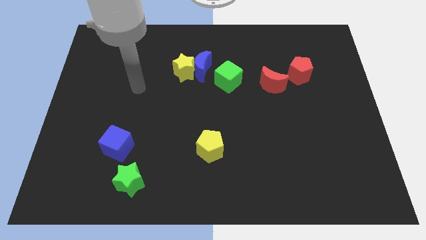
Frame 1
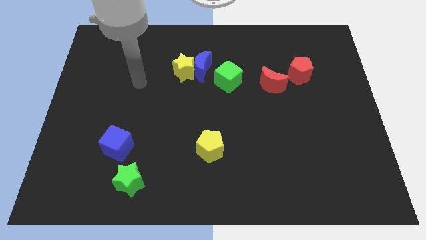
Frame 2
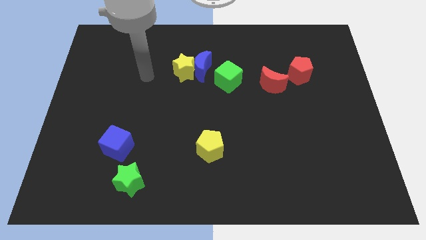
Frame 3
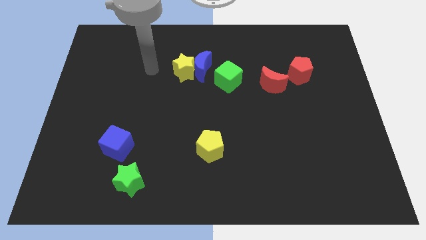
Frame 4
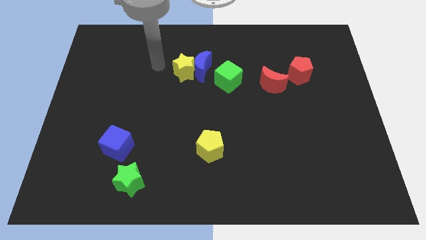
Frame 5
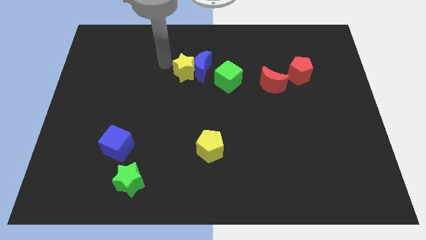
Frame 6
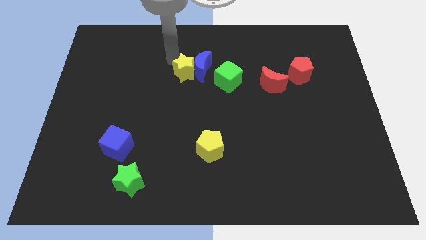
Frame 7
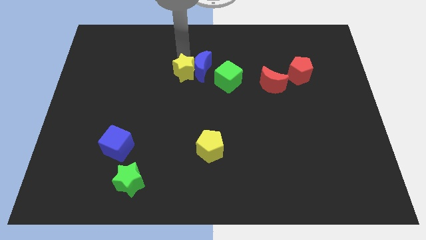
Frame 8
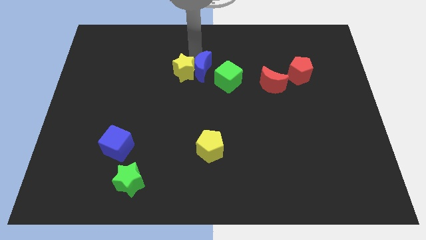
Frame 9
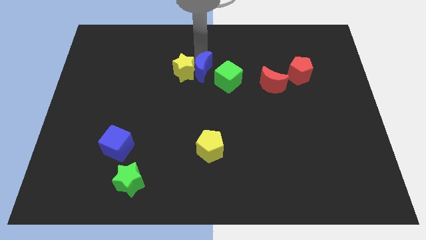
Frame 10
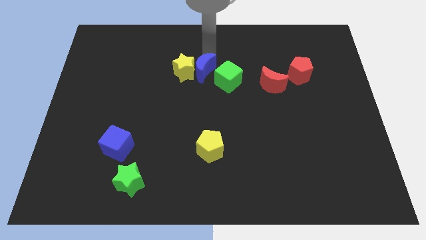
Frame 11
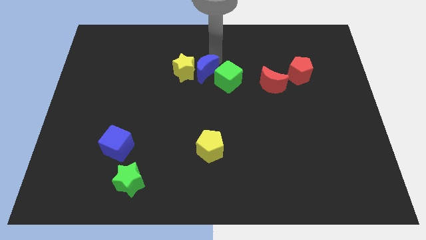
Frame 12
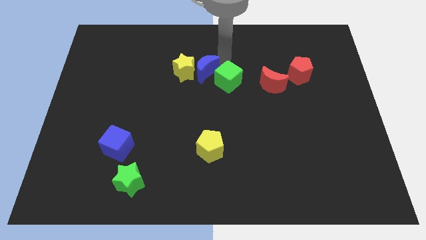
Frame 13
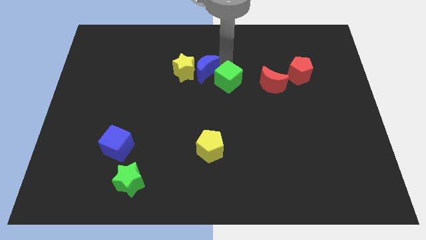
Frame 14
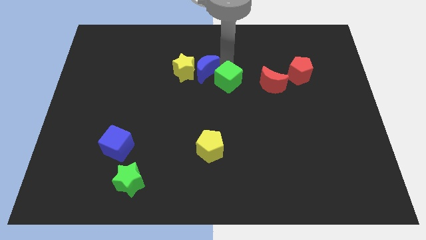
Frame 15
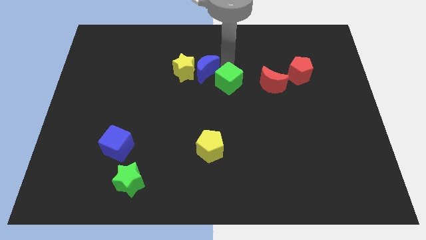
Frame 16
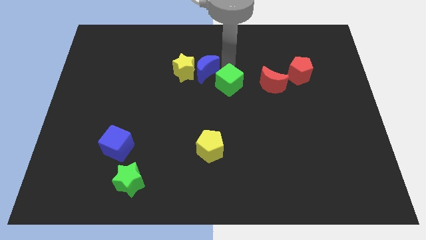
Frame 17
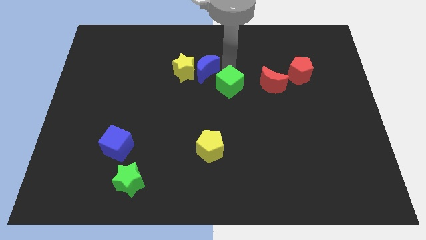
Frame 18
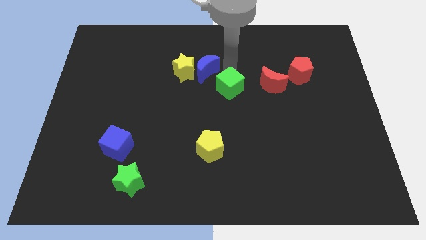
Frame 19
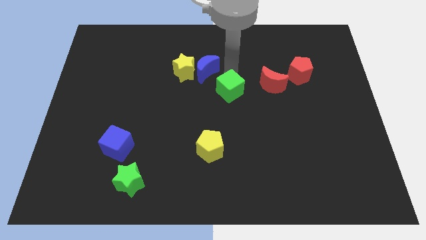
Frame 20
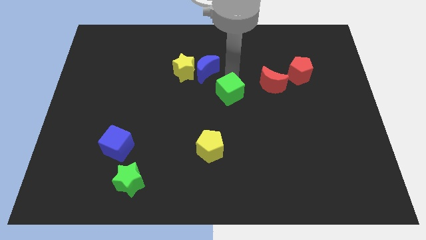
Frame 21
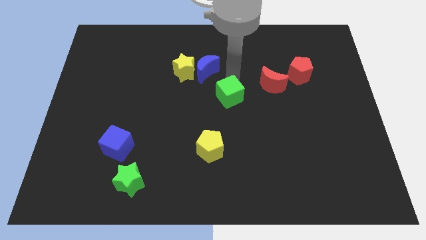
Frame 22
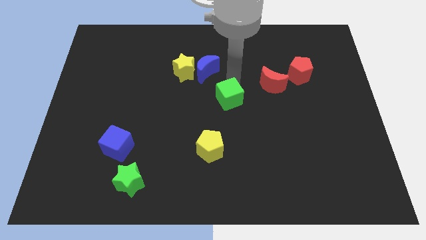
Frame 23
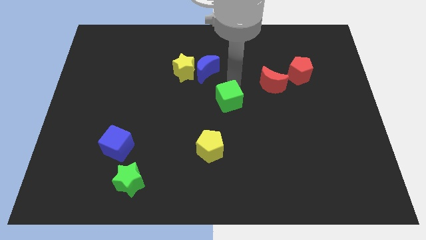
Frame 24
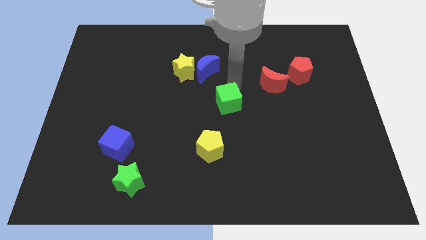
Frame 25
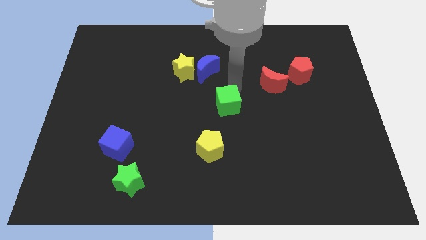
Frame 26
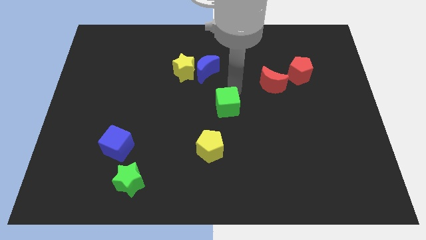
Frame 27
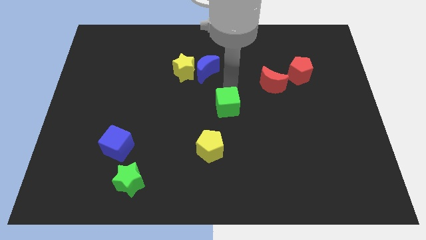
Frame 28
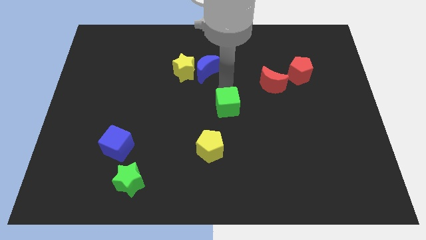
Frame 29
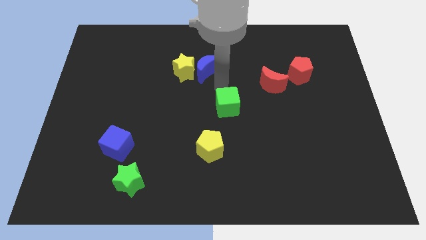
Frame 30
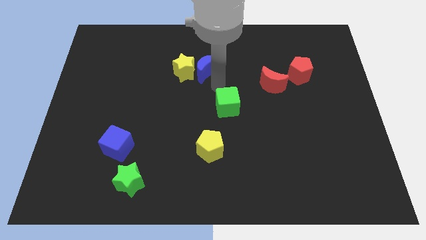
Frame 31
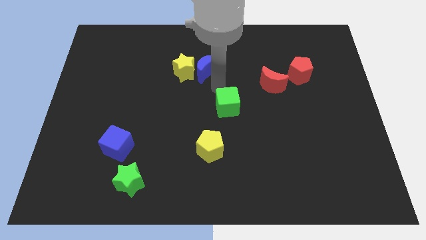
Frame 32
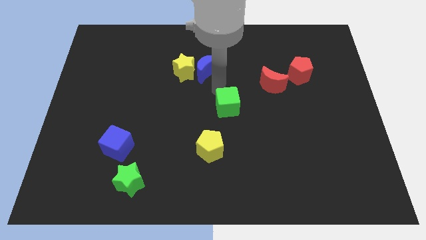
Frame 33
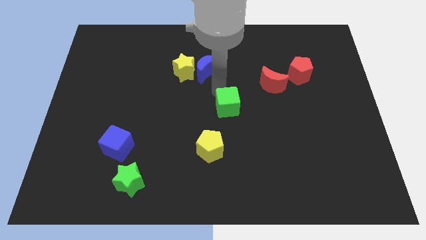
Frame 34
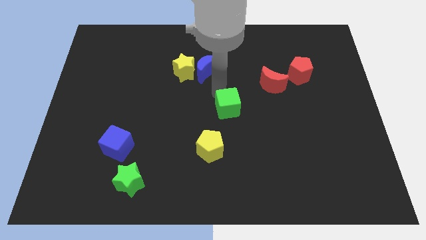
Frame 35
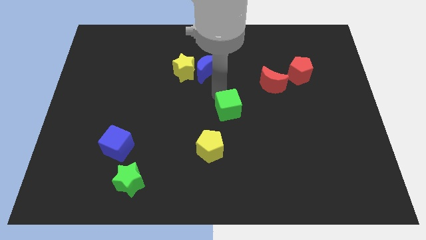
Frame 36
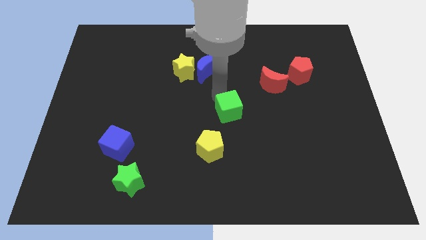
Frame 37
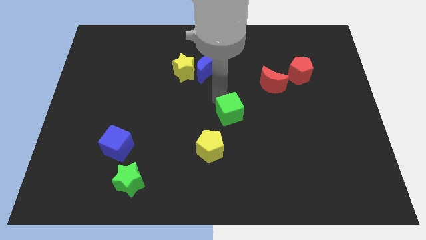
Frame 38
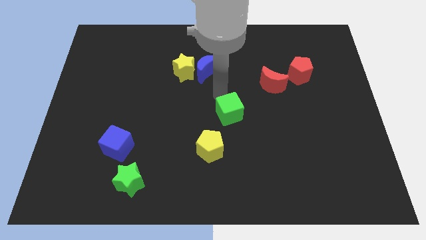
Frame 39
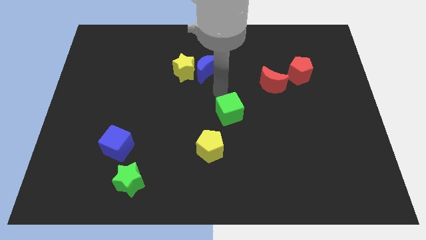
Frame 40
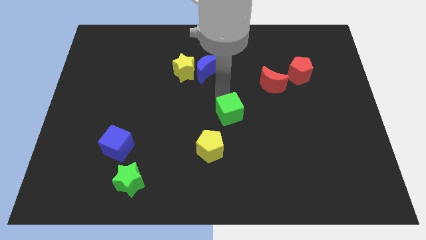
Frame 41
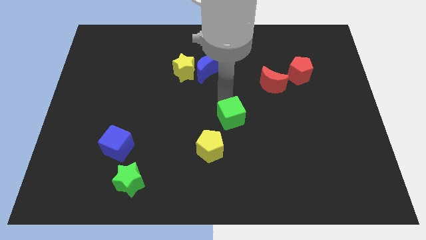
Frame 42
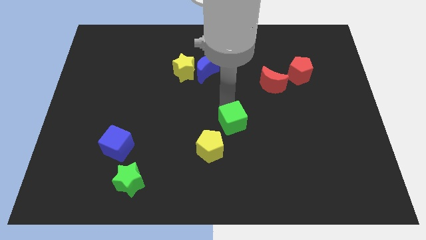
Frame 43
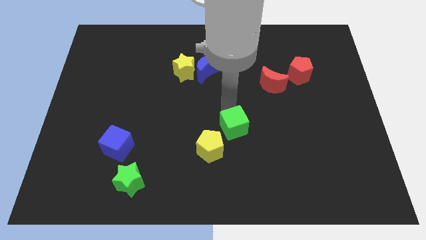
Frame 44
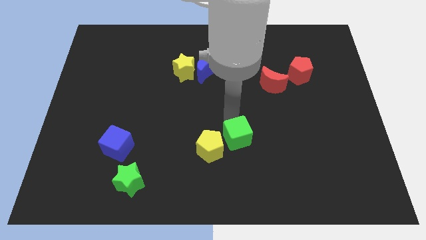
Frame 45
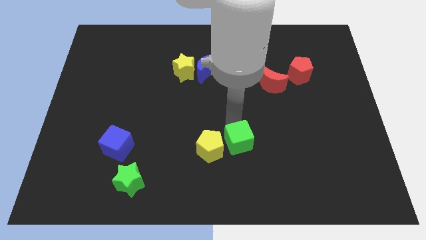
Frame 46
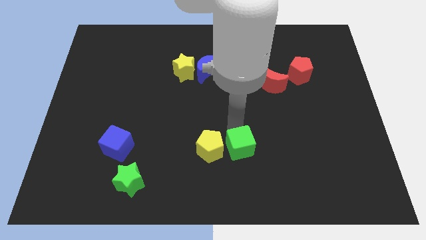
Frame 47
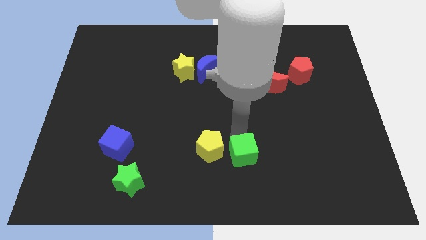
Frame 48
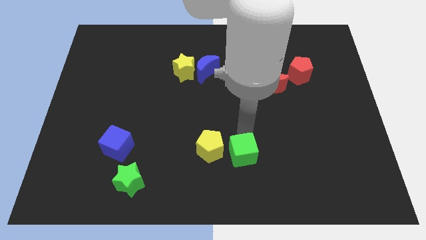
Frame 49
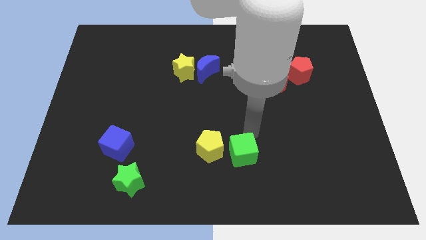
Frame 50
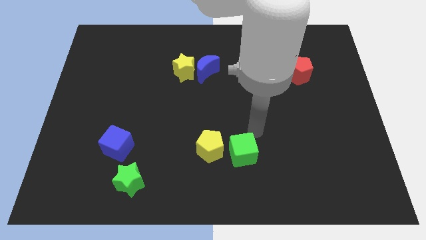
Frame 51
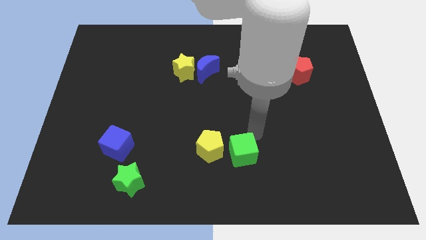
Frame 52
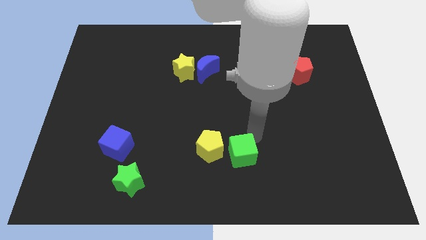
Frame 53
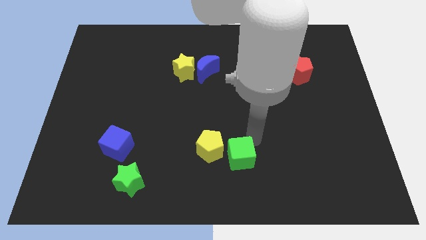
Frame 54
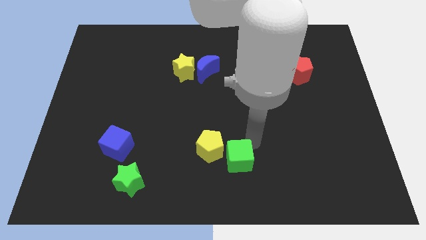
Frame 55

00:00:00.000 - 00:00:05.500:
push the green cube to the bottom

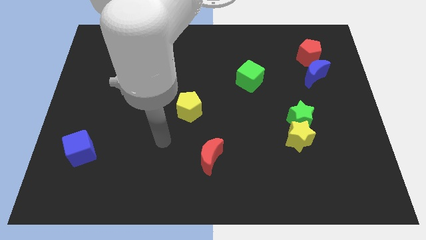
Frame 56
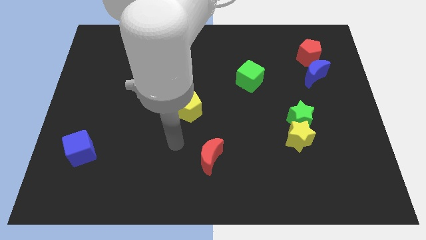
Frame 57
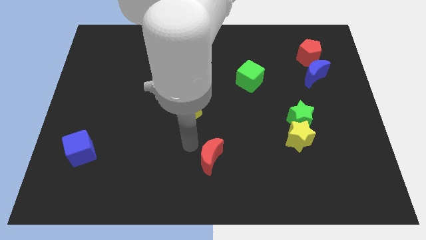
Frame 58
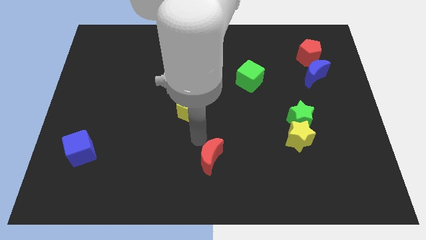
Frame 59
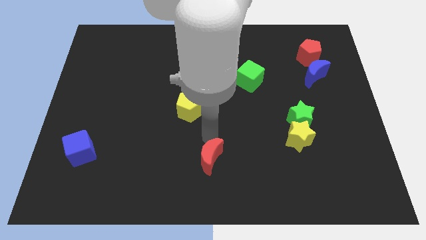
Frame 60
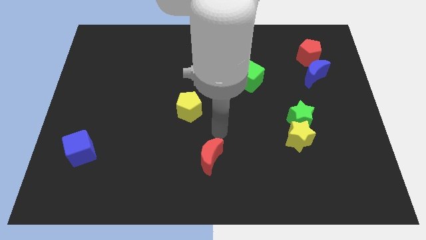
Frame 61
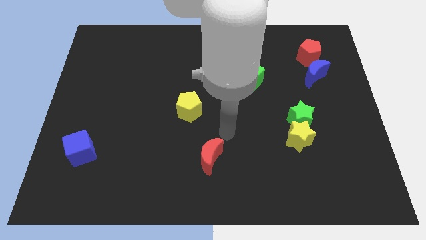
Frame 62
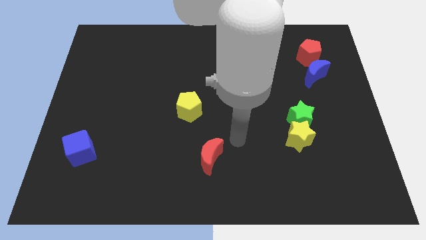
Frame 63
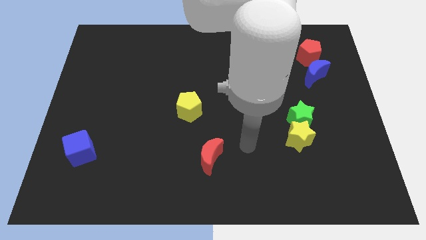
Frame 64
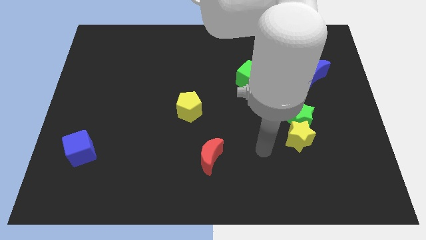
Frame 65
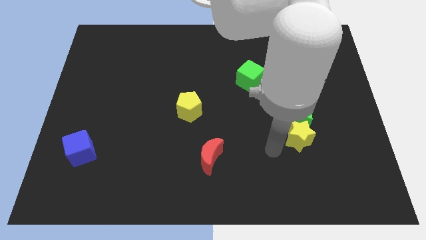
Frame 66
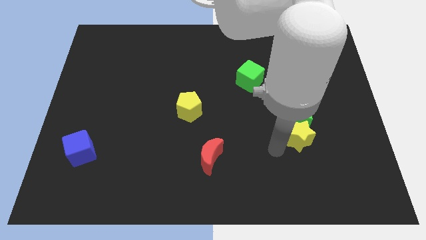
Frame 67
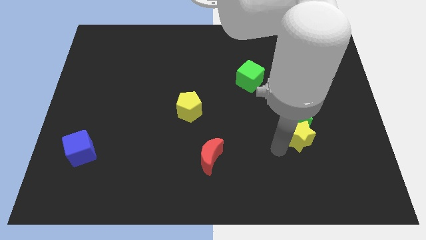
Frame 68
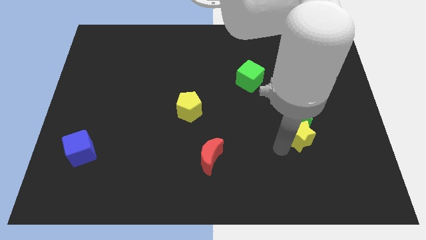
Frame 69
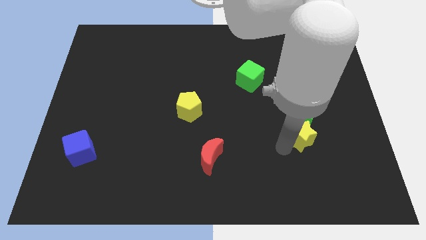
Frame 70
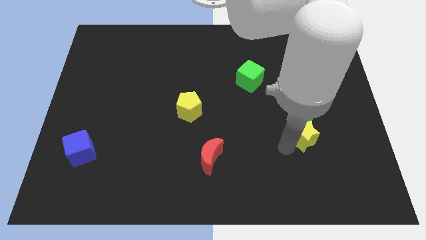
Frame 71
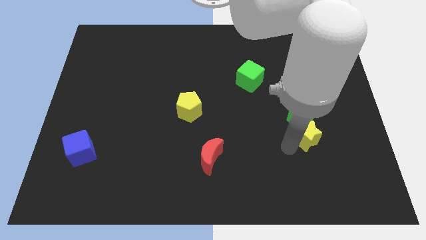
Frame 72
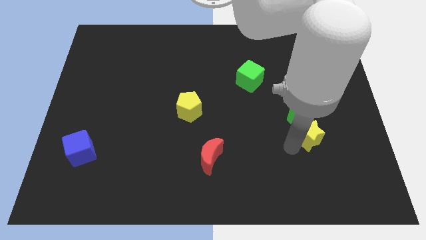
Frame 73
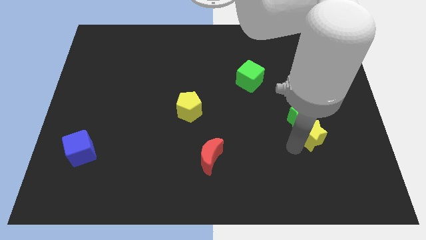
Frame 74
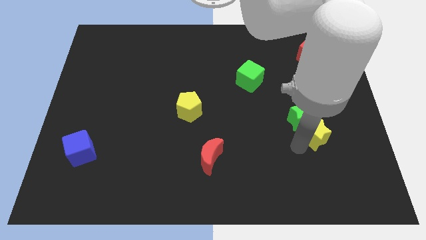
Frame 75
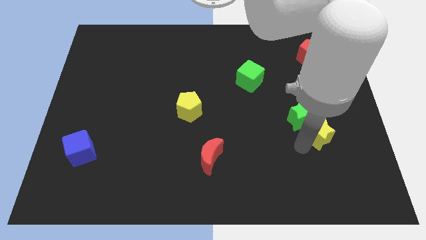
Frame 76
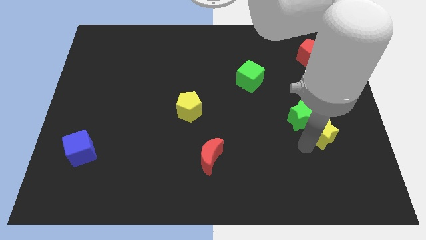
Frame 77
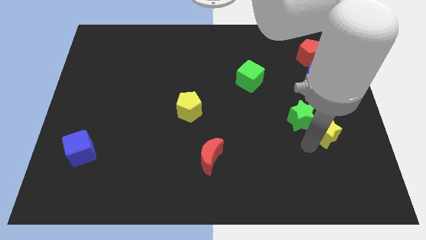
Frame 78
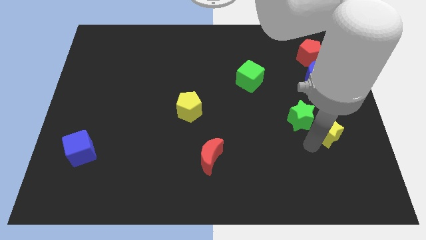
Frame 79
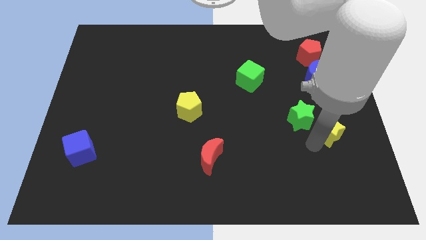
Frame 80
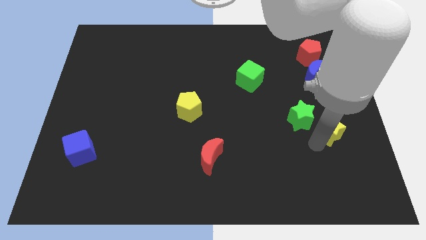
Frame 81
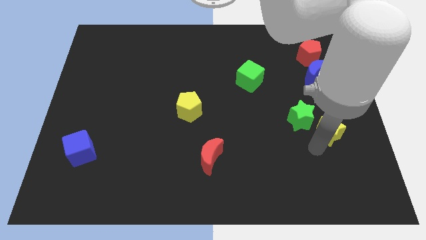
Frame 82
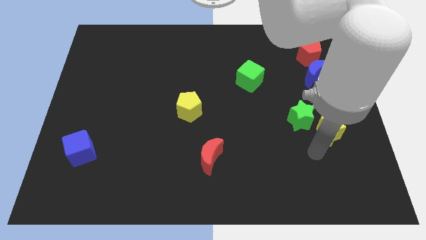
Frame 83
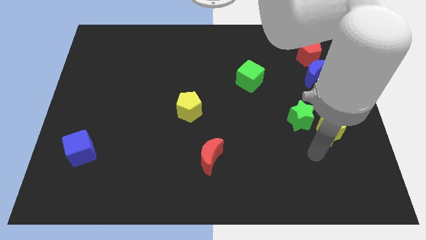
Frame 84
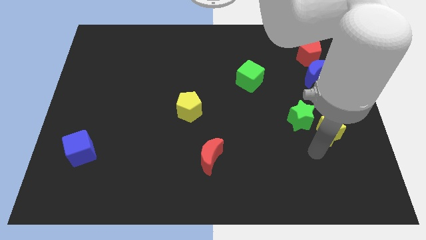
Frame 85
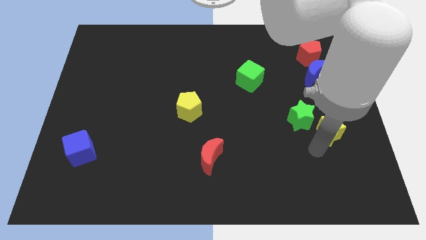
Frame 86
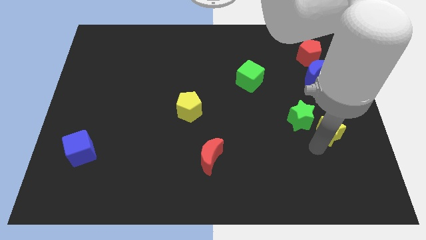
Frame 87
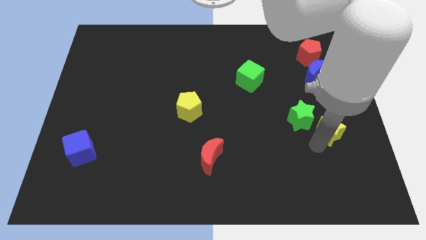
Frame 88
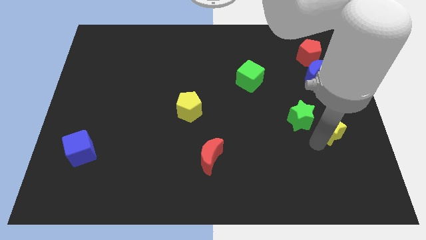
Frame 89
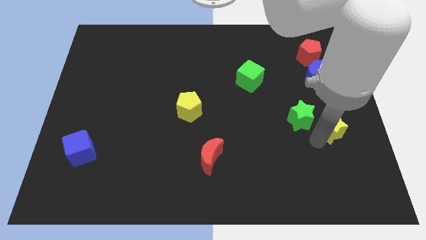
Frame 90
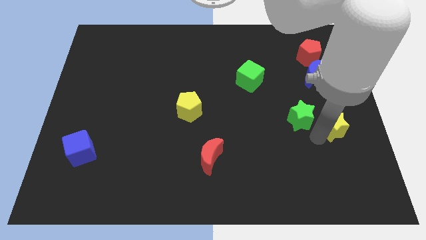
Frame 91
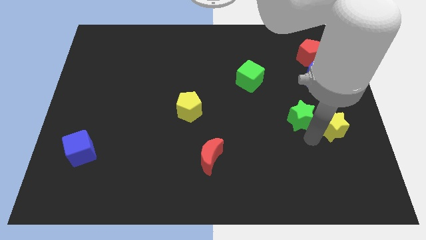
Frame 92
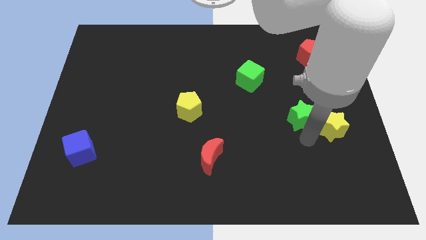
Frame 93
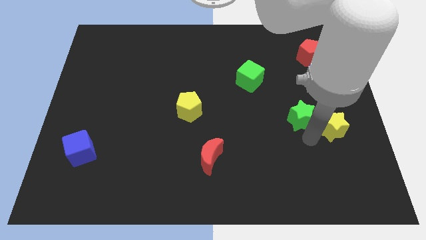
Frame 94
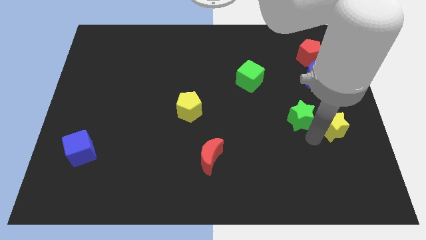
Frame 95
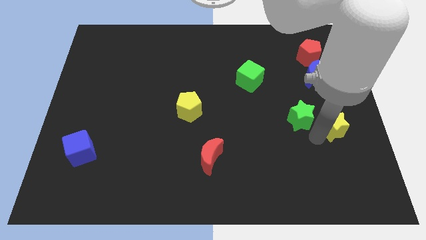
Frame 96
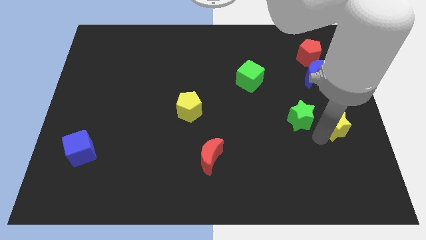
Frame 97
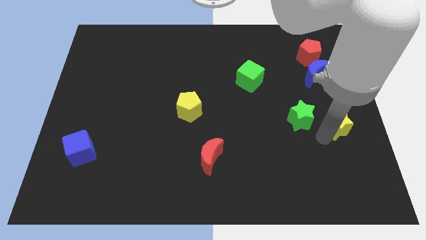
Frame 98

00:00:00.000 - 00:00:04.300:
move the yellow star to the center right
